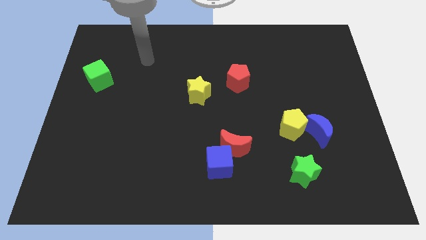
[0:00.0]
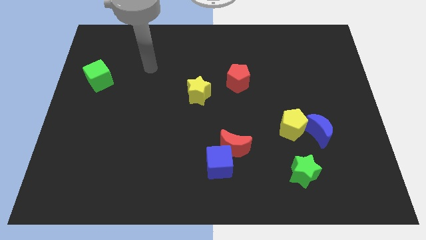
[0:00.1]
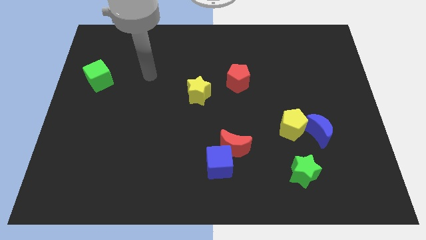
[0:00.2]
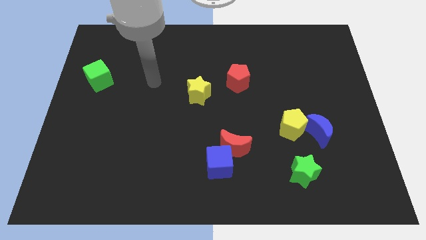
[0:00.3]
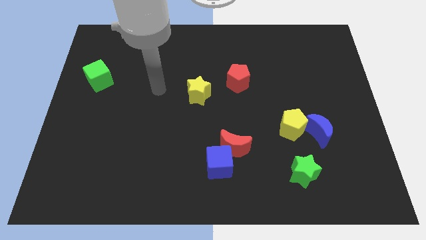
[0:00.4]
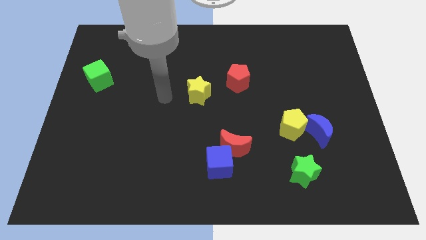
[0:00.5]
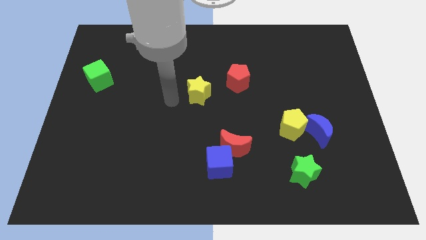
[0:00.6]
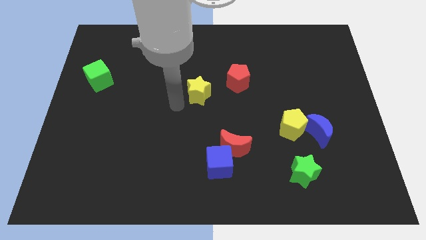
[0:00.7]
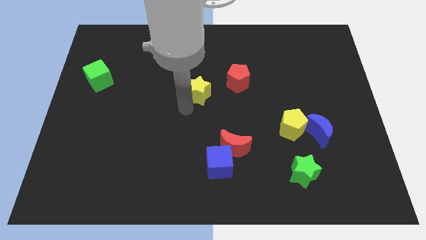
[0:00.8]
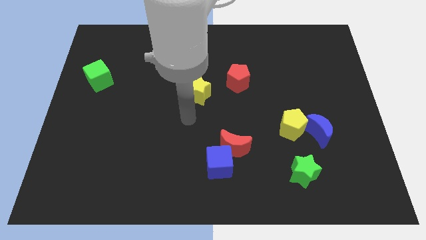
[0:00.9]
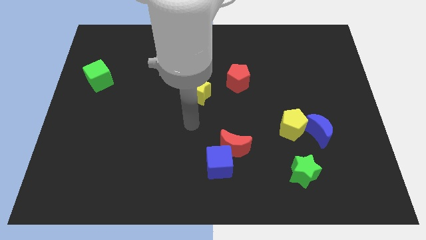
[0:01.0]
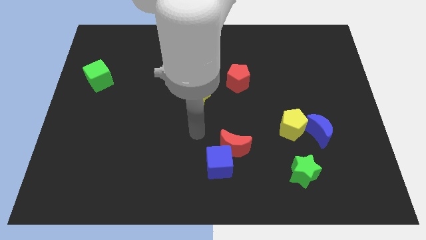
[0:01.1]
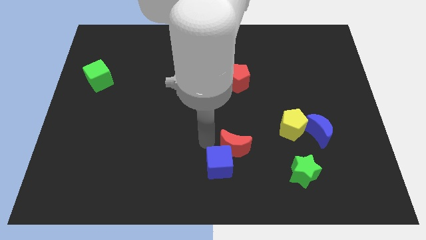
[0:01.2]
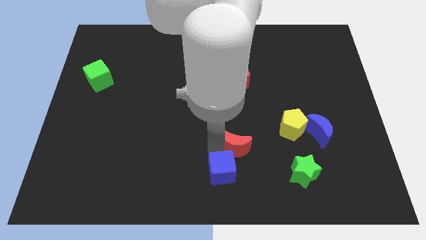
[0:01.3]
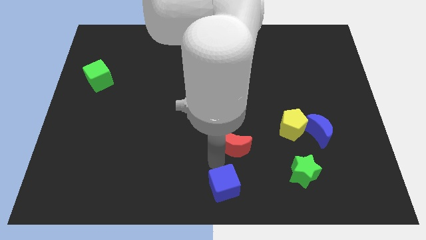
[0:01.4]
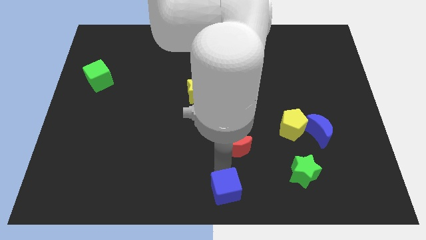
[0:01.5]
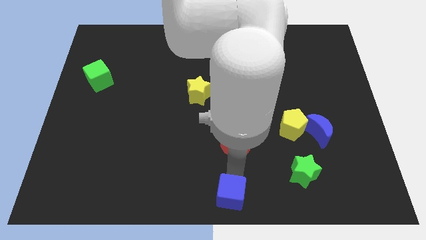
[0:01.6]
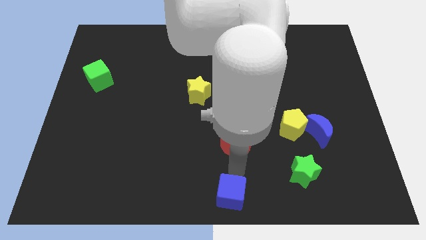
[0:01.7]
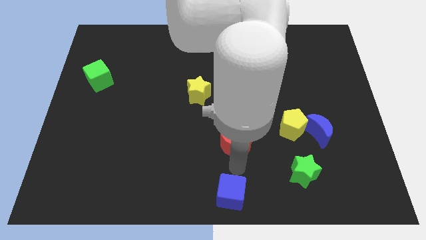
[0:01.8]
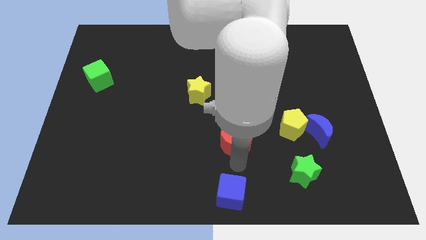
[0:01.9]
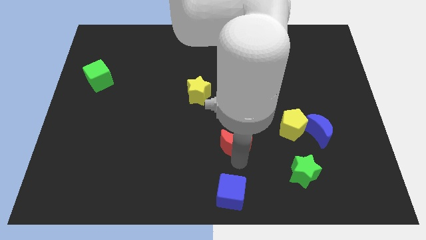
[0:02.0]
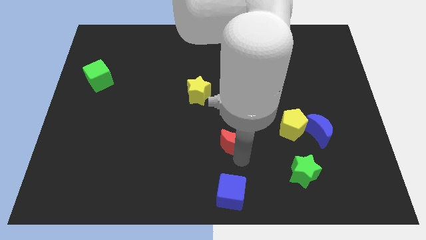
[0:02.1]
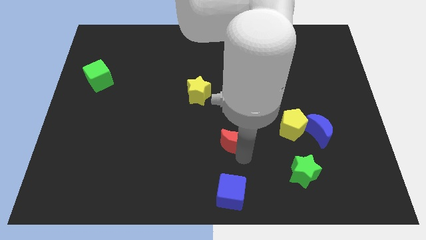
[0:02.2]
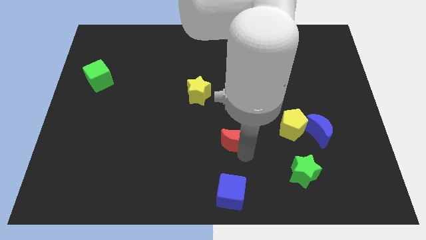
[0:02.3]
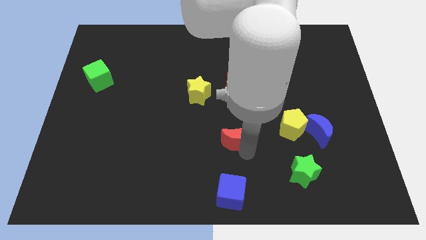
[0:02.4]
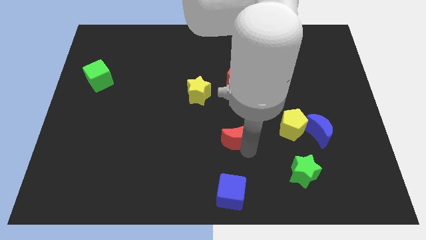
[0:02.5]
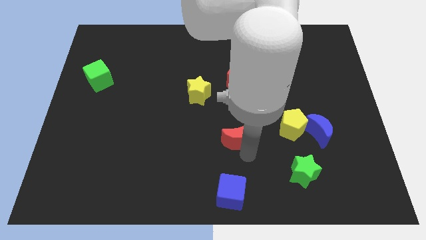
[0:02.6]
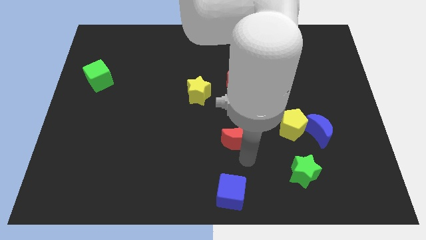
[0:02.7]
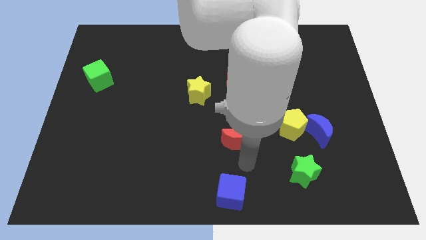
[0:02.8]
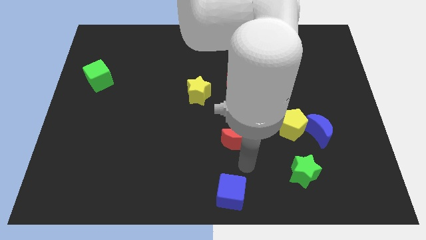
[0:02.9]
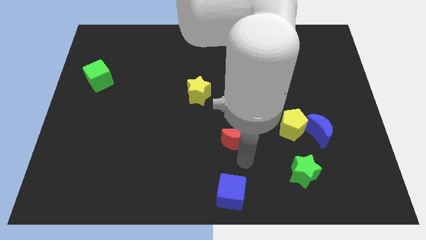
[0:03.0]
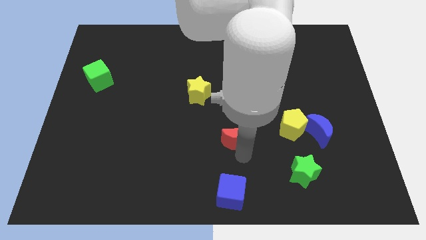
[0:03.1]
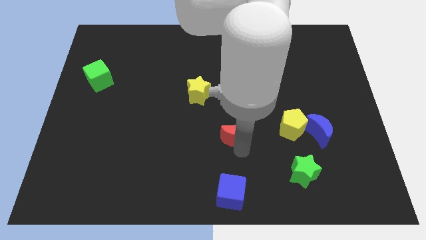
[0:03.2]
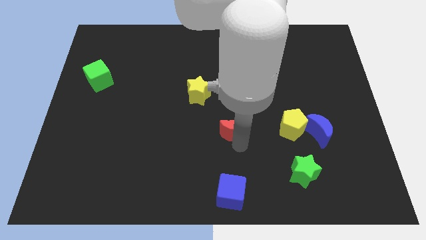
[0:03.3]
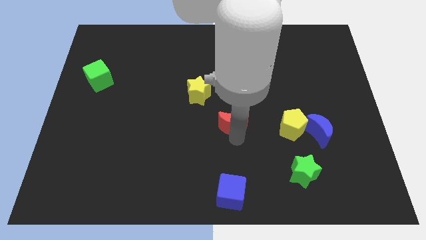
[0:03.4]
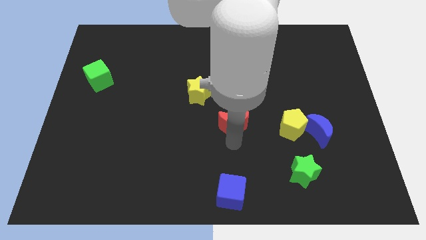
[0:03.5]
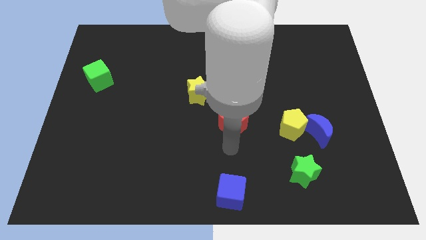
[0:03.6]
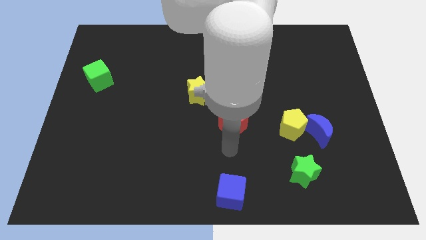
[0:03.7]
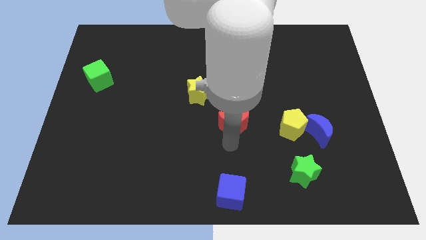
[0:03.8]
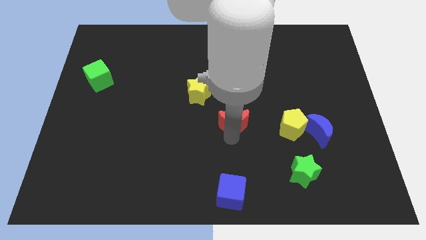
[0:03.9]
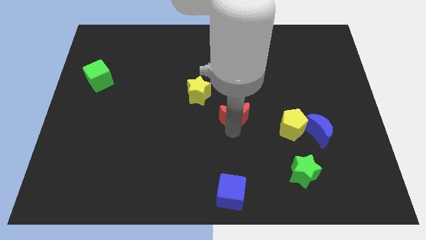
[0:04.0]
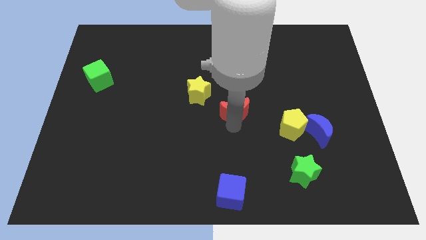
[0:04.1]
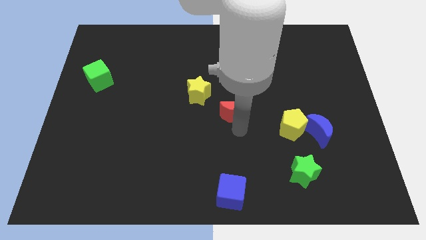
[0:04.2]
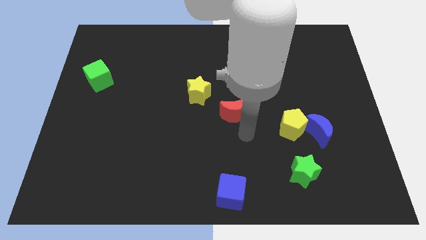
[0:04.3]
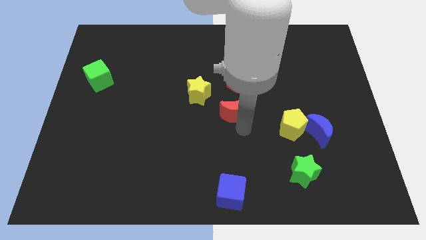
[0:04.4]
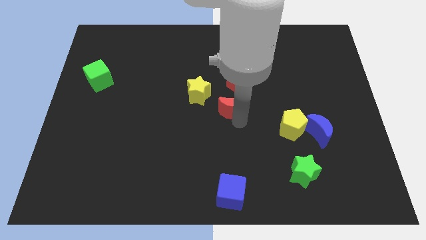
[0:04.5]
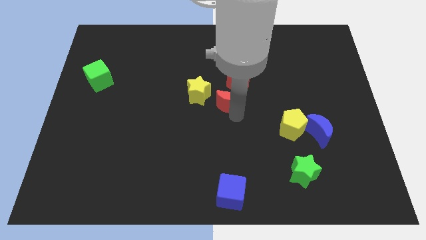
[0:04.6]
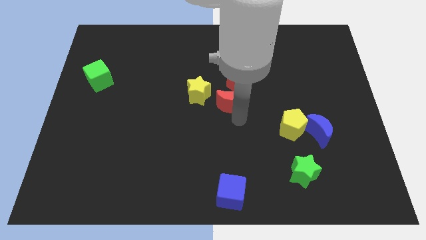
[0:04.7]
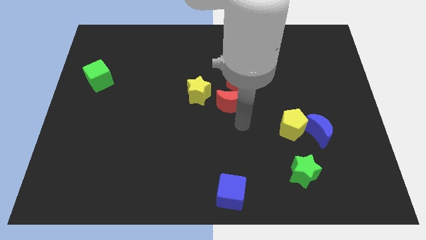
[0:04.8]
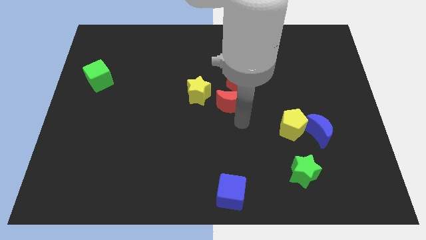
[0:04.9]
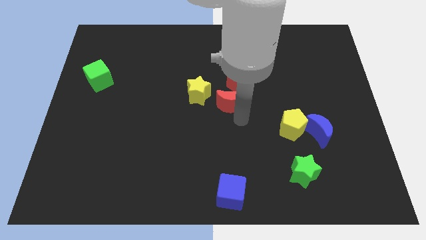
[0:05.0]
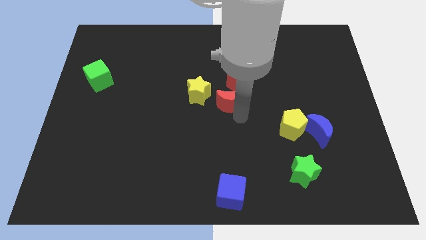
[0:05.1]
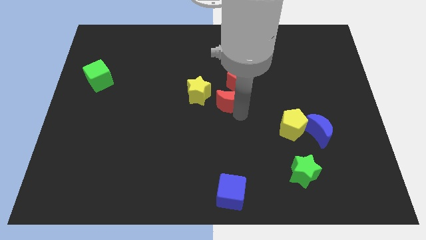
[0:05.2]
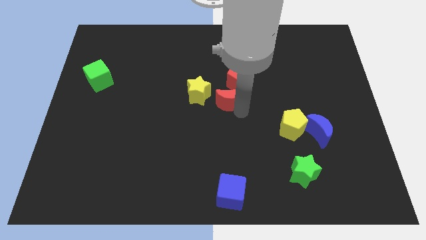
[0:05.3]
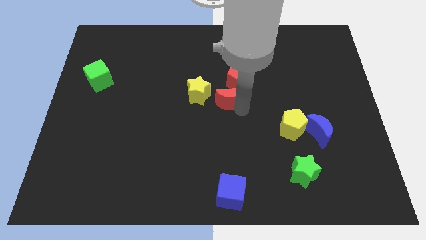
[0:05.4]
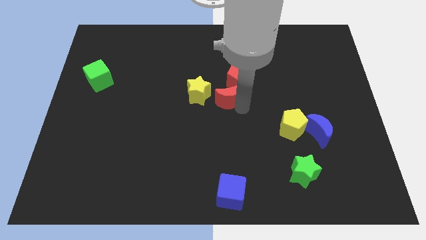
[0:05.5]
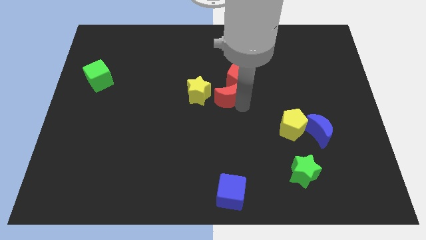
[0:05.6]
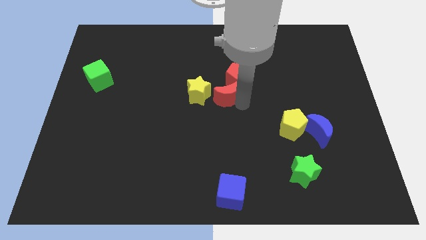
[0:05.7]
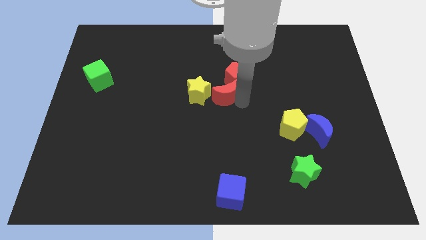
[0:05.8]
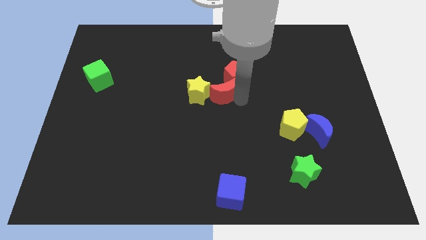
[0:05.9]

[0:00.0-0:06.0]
slide the red moon diagonally up and to the right of the yellow star

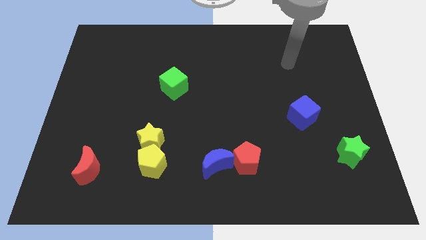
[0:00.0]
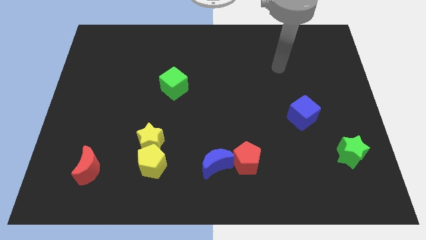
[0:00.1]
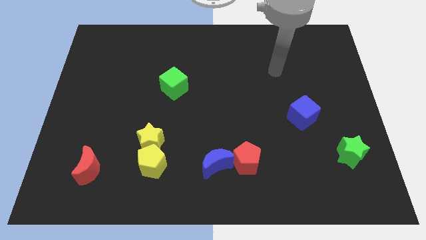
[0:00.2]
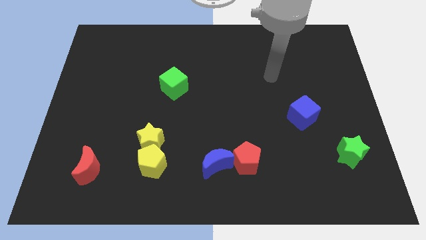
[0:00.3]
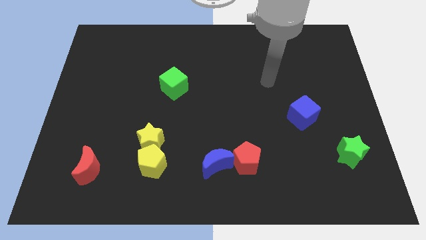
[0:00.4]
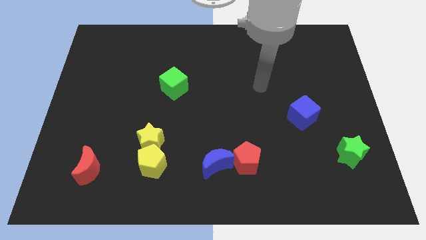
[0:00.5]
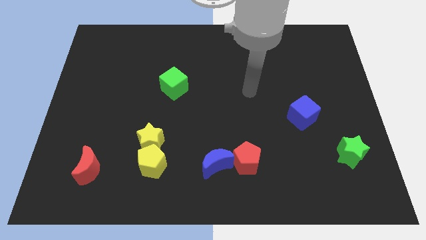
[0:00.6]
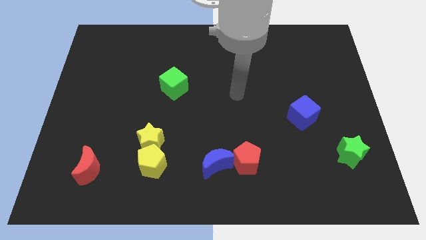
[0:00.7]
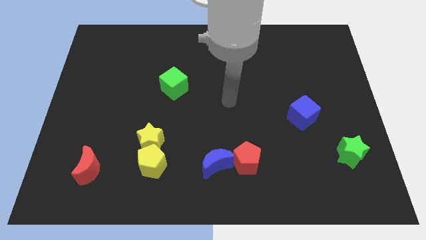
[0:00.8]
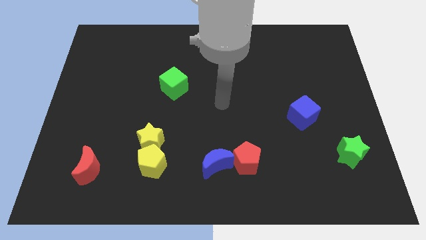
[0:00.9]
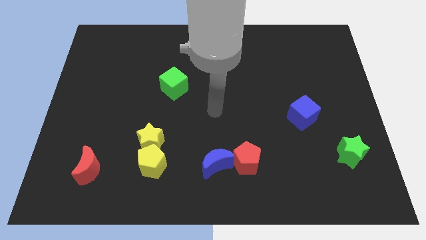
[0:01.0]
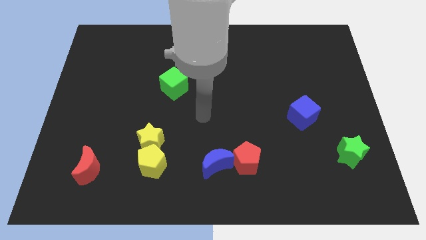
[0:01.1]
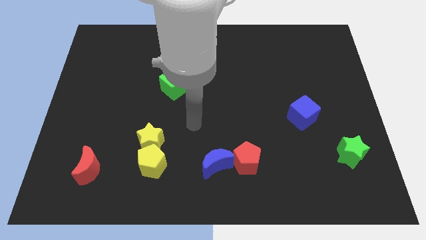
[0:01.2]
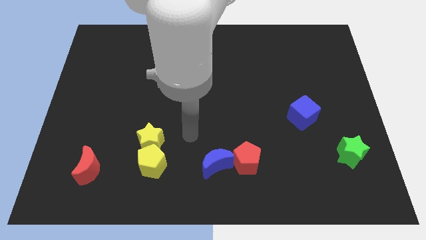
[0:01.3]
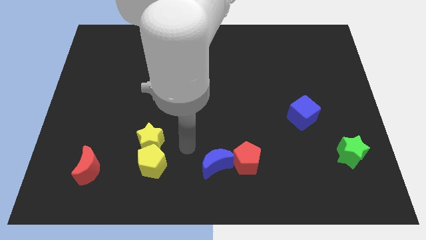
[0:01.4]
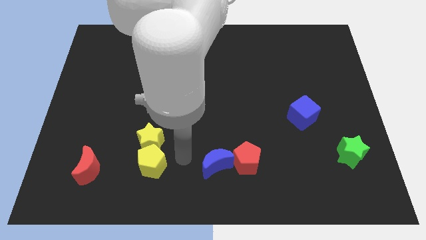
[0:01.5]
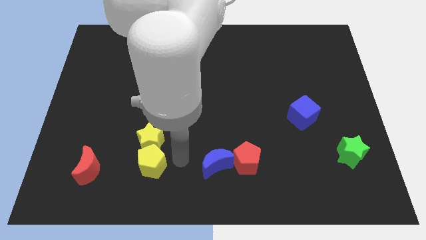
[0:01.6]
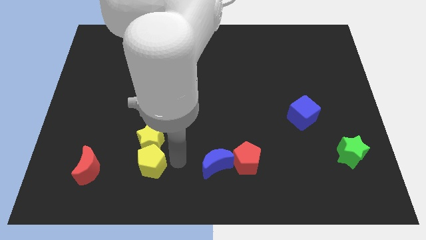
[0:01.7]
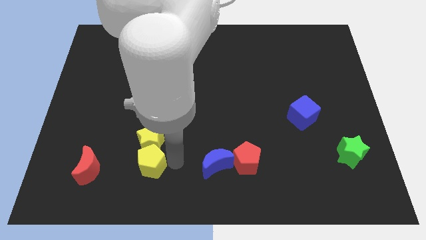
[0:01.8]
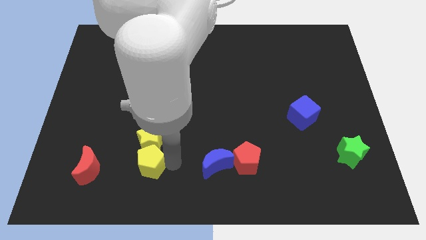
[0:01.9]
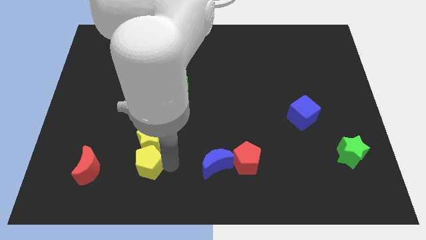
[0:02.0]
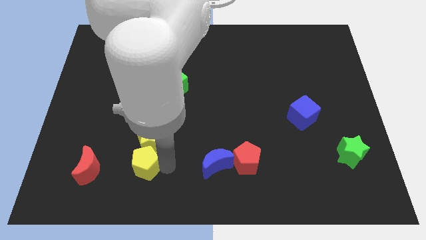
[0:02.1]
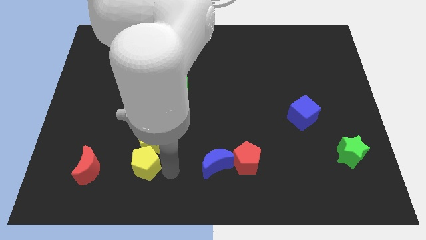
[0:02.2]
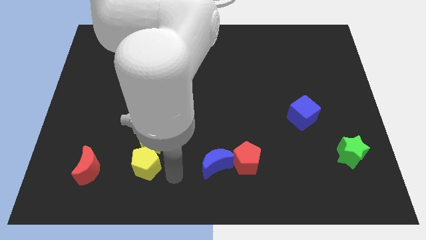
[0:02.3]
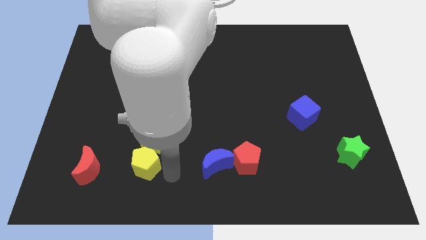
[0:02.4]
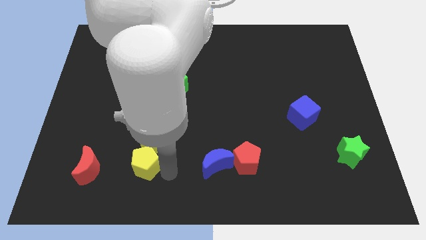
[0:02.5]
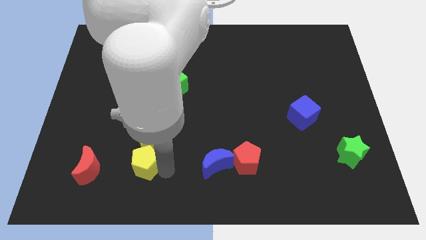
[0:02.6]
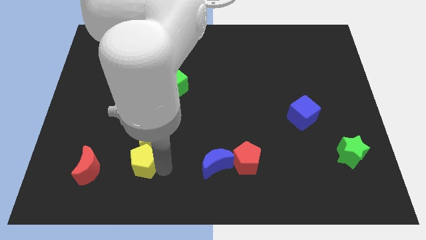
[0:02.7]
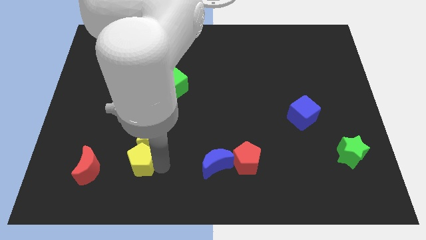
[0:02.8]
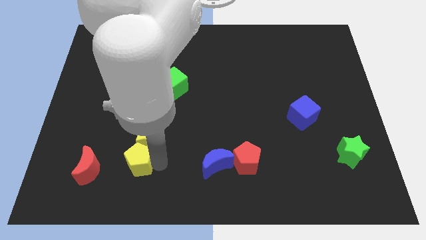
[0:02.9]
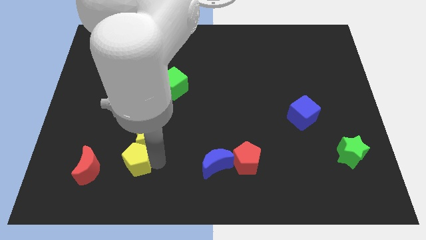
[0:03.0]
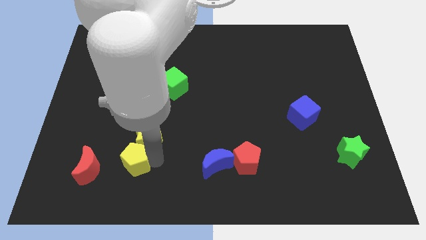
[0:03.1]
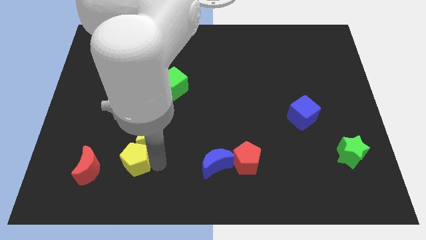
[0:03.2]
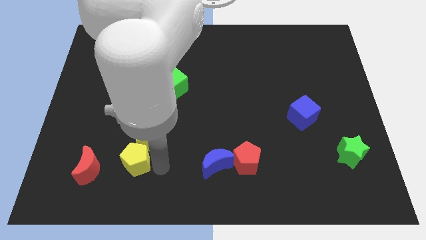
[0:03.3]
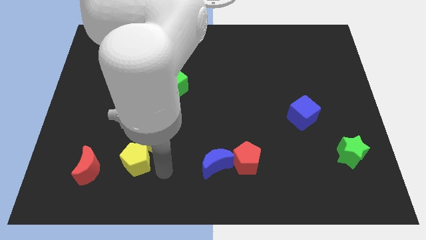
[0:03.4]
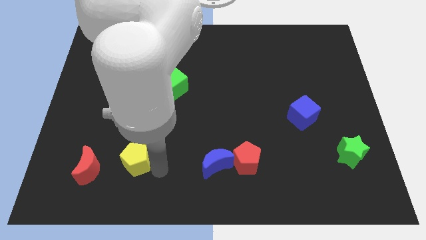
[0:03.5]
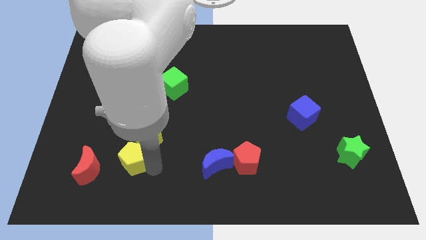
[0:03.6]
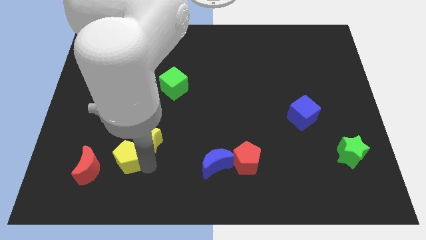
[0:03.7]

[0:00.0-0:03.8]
slide the yellow pentagon left of the yellow star
